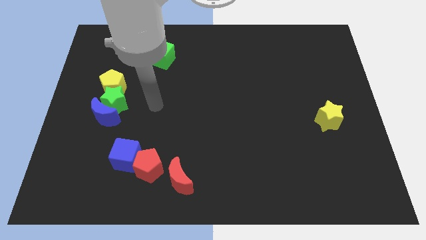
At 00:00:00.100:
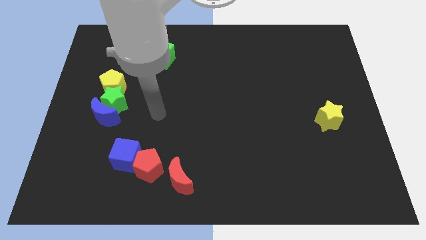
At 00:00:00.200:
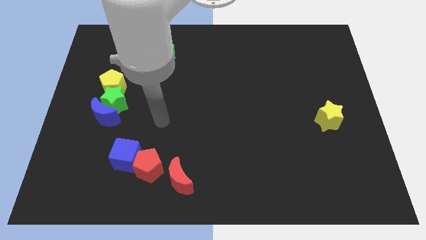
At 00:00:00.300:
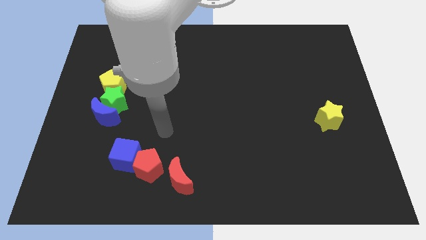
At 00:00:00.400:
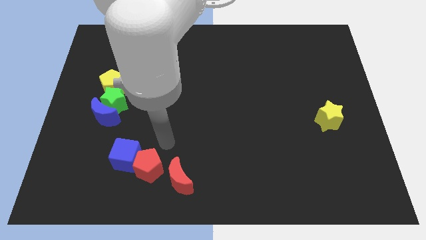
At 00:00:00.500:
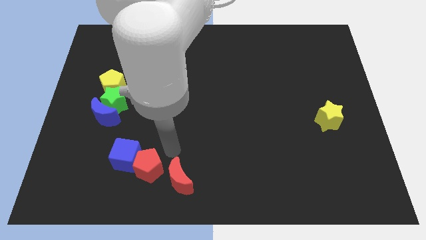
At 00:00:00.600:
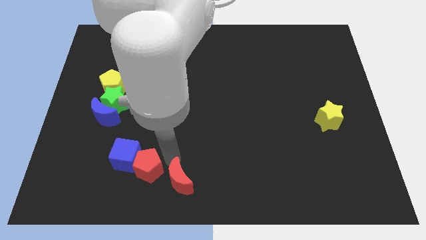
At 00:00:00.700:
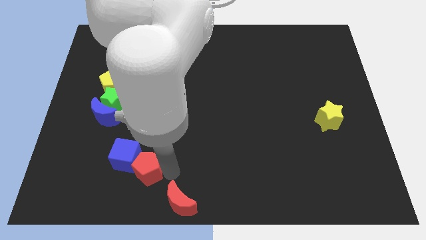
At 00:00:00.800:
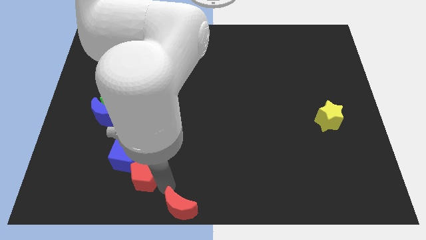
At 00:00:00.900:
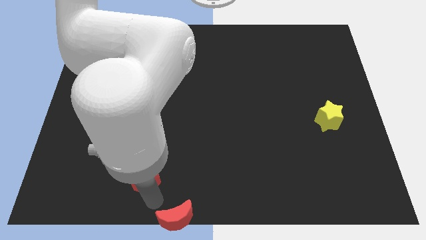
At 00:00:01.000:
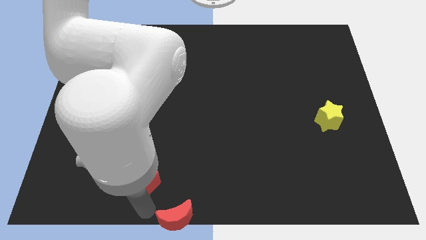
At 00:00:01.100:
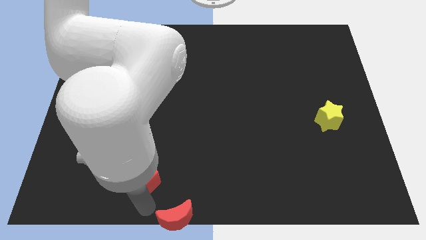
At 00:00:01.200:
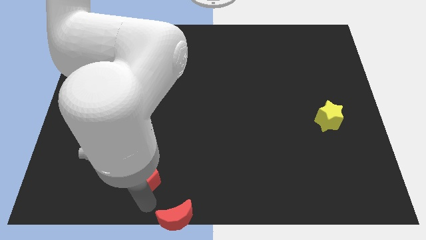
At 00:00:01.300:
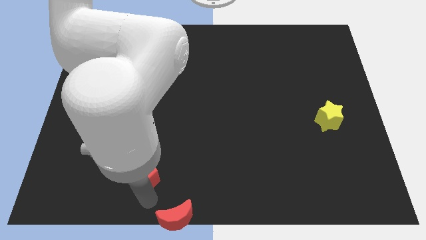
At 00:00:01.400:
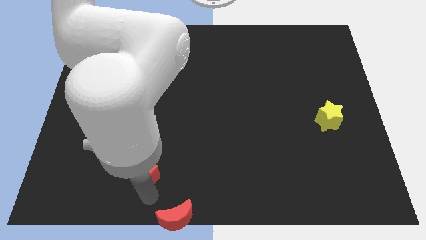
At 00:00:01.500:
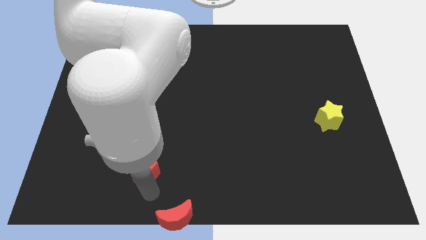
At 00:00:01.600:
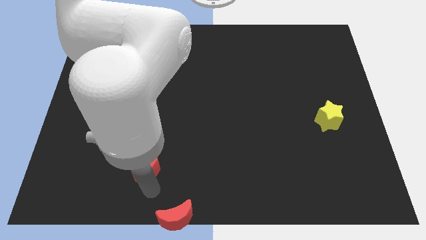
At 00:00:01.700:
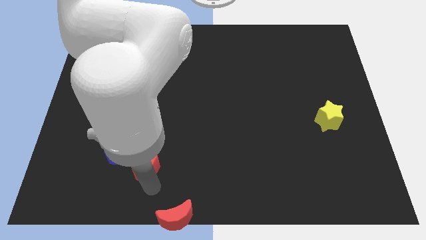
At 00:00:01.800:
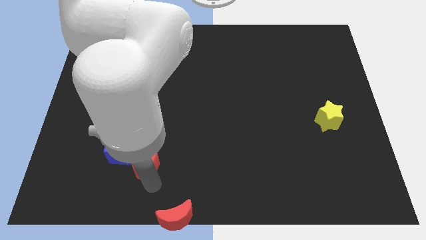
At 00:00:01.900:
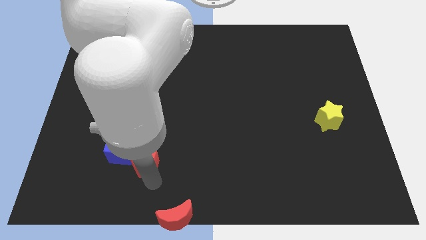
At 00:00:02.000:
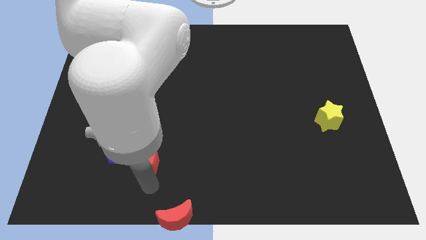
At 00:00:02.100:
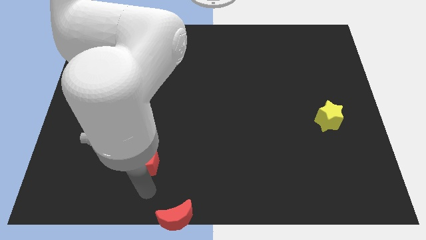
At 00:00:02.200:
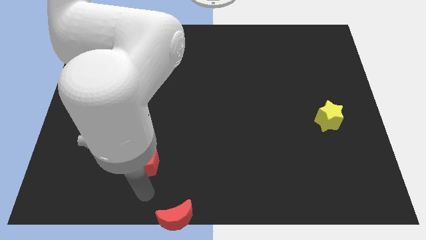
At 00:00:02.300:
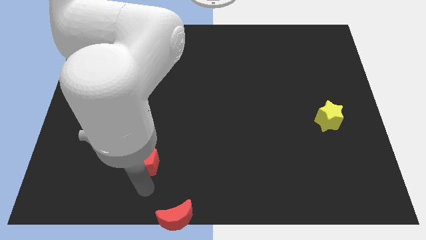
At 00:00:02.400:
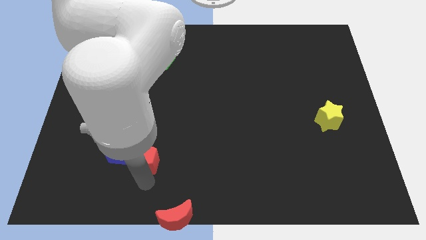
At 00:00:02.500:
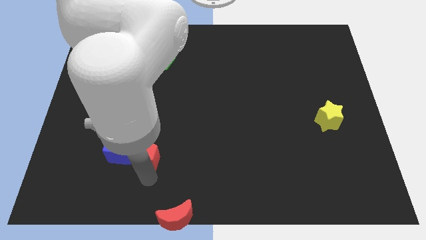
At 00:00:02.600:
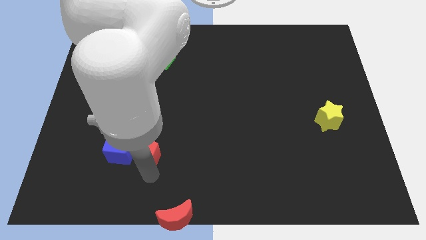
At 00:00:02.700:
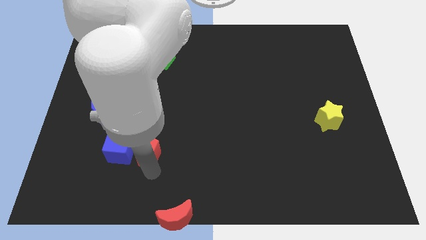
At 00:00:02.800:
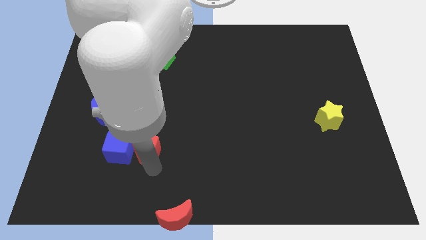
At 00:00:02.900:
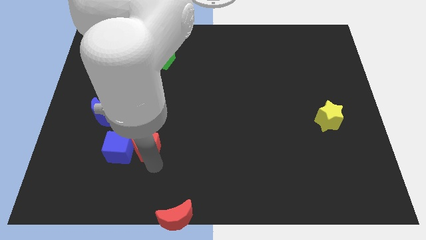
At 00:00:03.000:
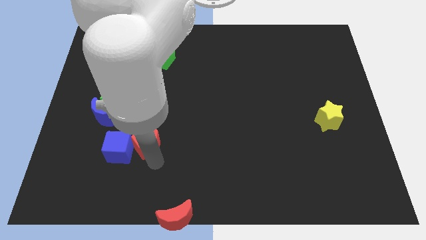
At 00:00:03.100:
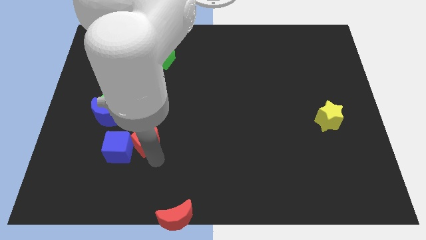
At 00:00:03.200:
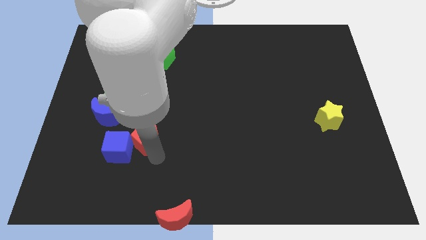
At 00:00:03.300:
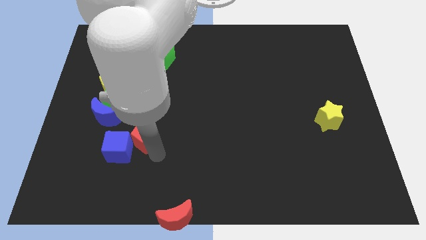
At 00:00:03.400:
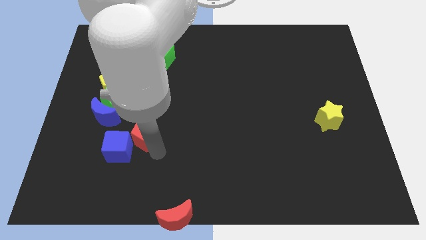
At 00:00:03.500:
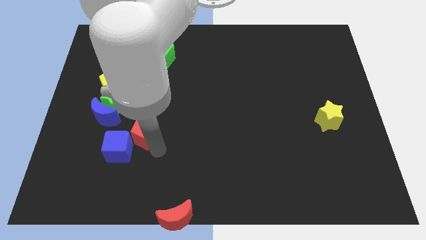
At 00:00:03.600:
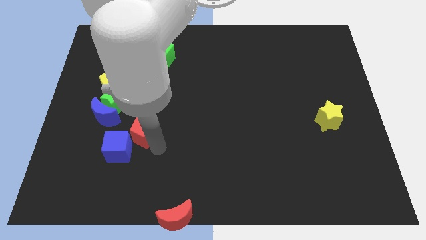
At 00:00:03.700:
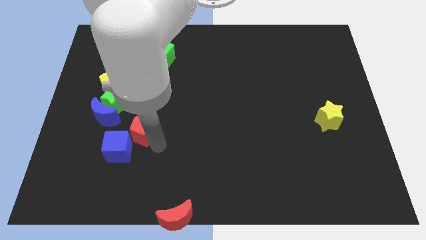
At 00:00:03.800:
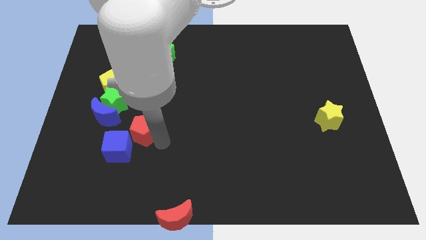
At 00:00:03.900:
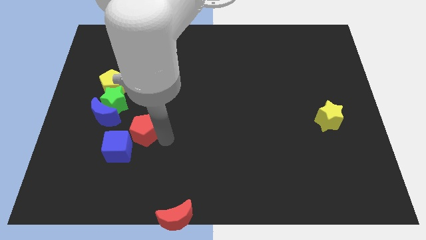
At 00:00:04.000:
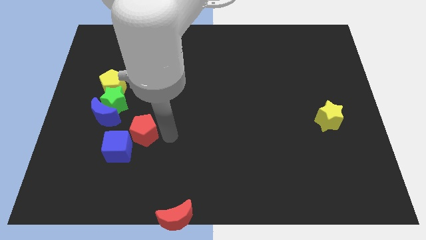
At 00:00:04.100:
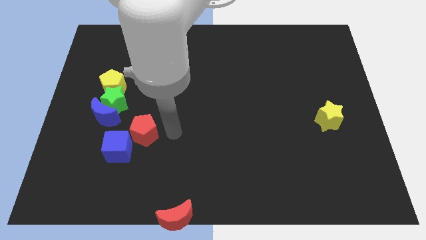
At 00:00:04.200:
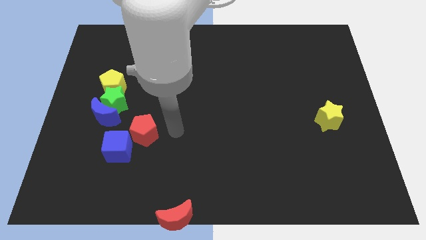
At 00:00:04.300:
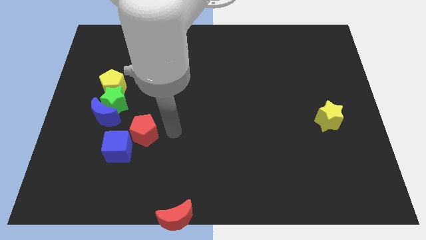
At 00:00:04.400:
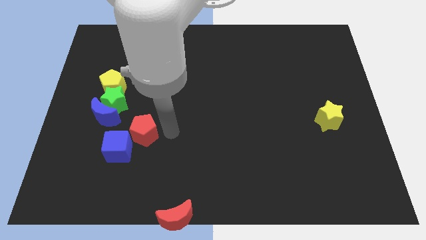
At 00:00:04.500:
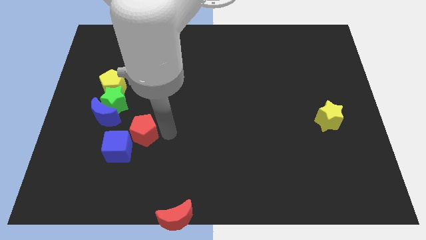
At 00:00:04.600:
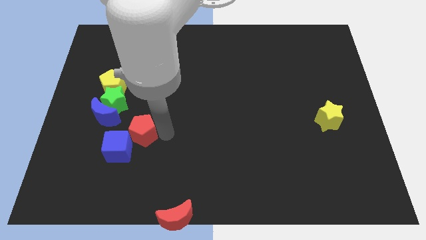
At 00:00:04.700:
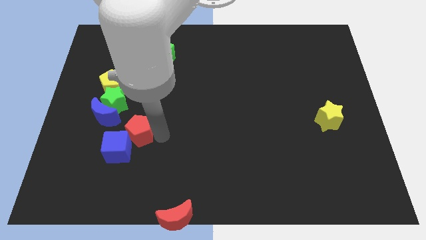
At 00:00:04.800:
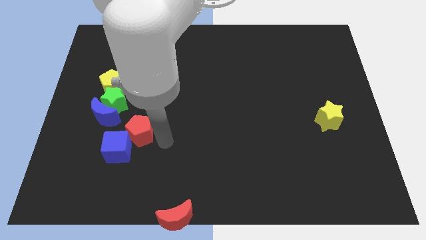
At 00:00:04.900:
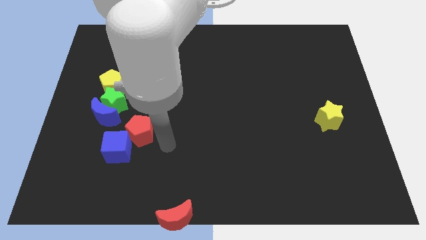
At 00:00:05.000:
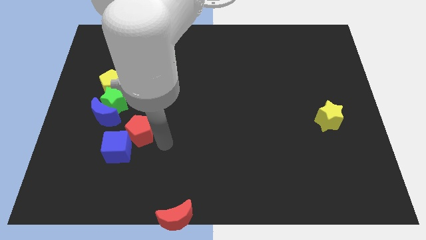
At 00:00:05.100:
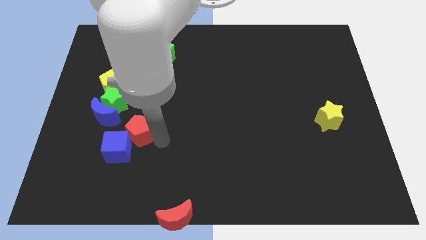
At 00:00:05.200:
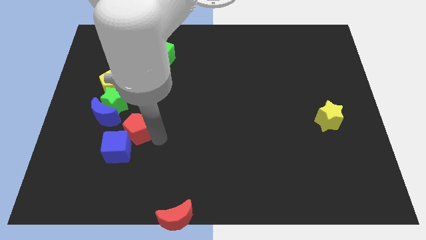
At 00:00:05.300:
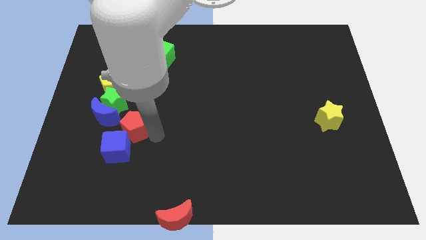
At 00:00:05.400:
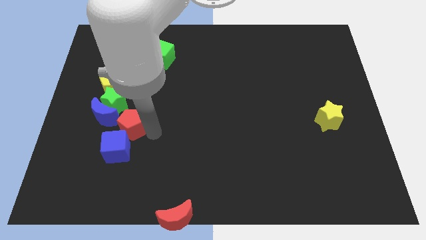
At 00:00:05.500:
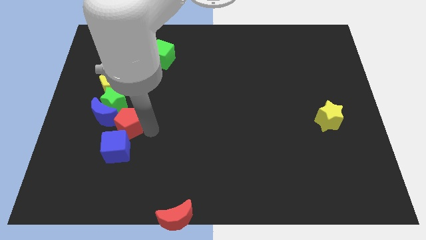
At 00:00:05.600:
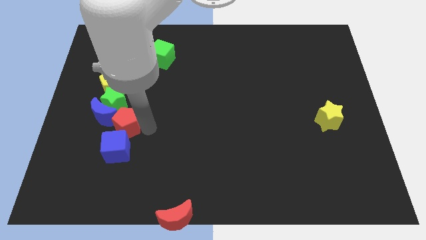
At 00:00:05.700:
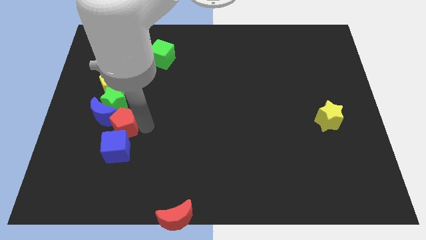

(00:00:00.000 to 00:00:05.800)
put the red pentagon towards the blue moon

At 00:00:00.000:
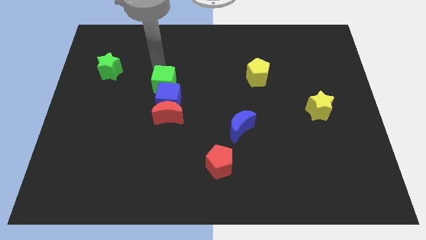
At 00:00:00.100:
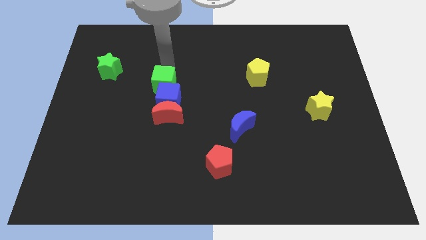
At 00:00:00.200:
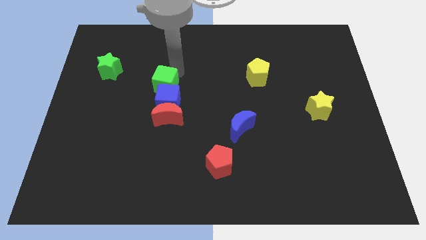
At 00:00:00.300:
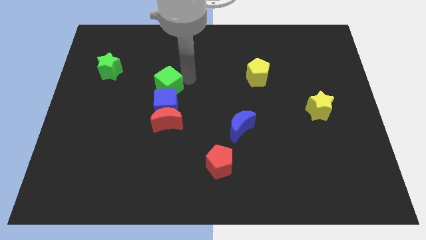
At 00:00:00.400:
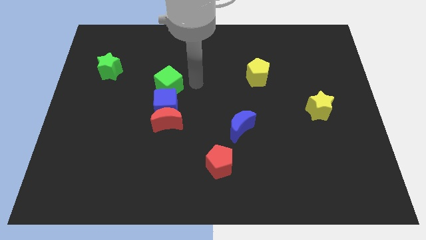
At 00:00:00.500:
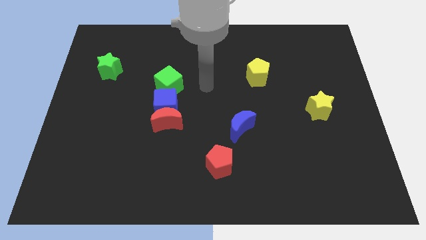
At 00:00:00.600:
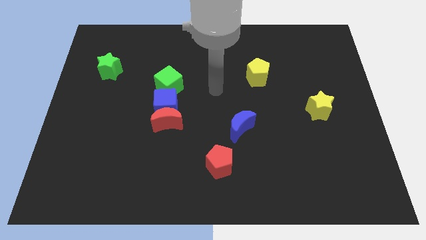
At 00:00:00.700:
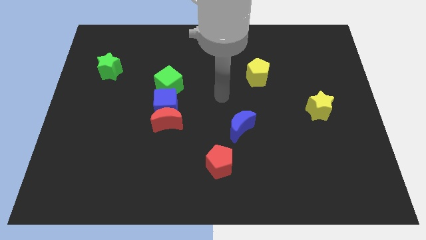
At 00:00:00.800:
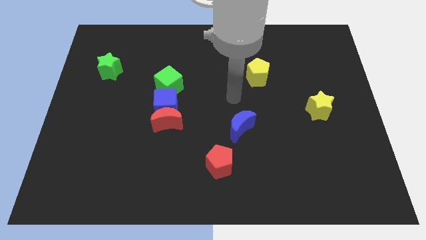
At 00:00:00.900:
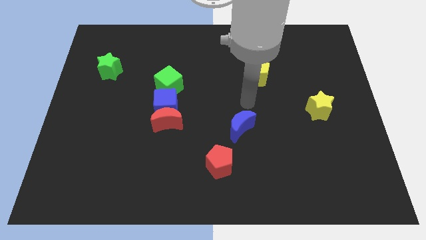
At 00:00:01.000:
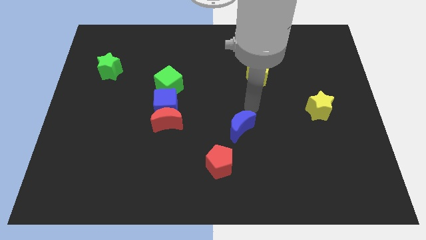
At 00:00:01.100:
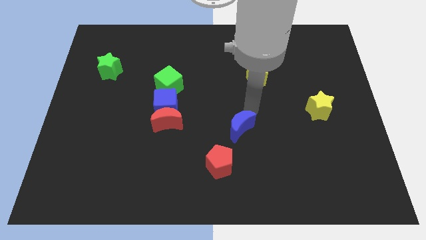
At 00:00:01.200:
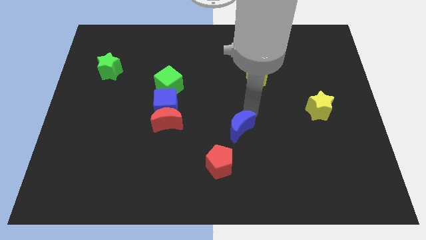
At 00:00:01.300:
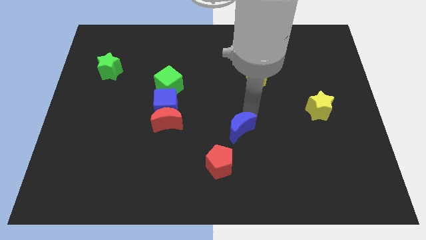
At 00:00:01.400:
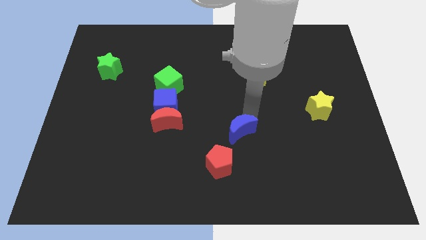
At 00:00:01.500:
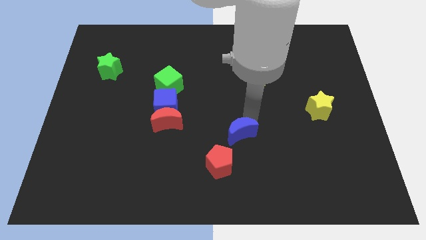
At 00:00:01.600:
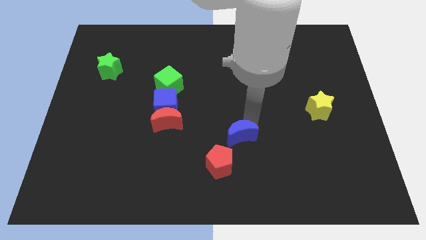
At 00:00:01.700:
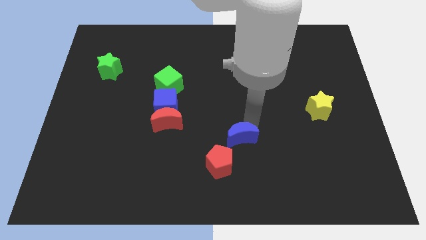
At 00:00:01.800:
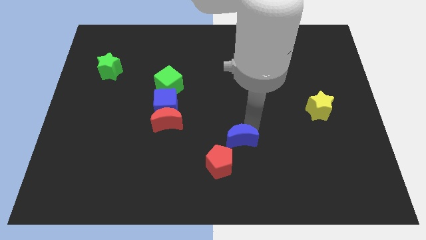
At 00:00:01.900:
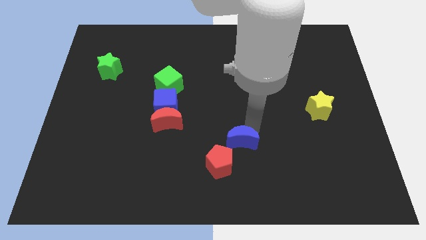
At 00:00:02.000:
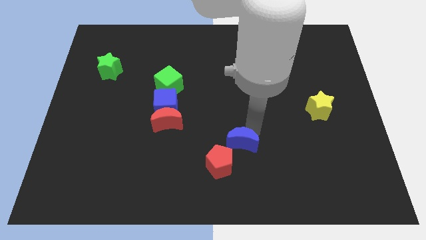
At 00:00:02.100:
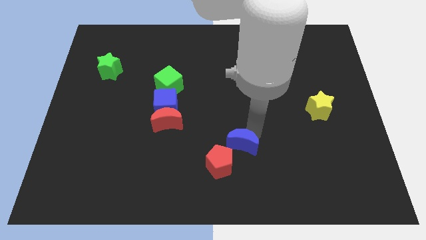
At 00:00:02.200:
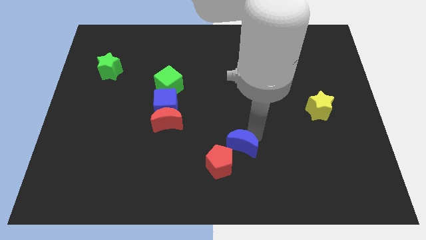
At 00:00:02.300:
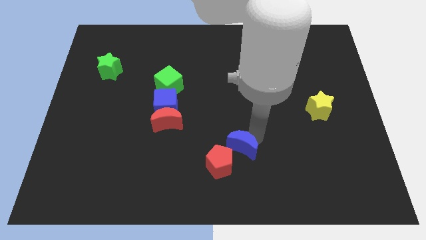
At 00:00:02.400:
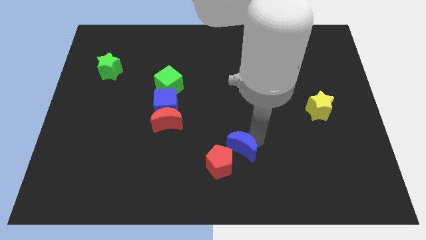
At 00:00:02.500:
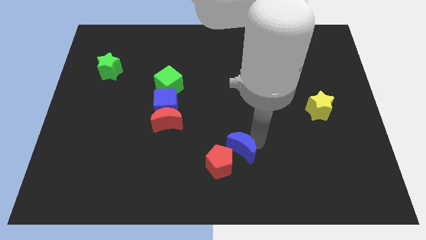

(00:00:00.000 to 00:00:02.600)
move the blue moon close to the red pentagon
